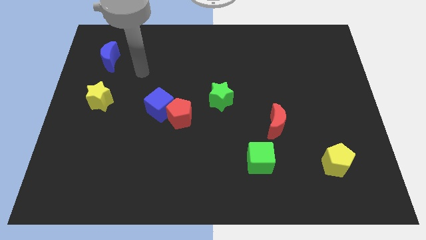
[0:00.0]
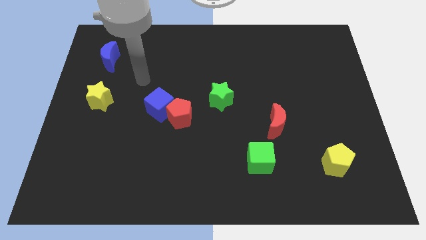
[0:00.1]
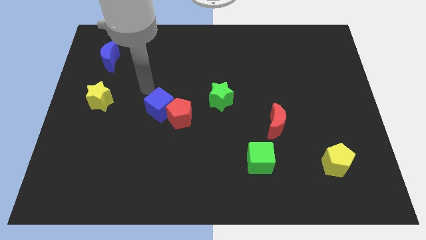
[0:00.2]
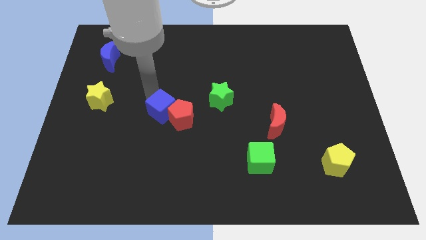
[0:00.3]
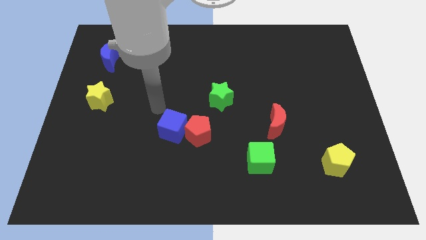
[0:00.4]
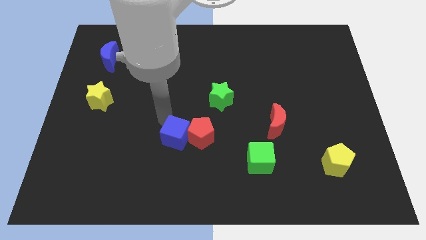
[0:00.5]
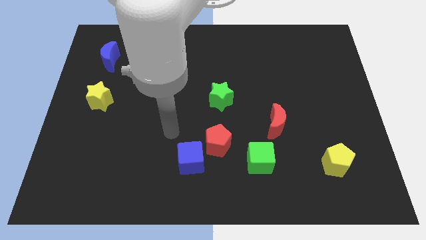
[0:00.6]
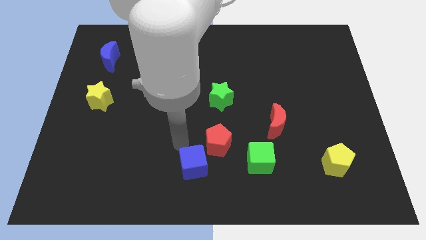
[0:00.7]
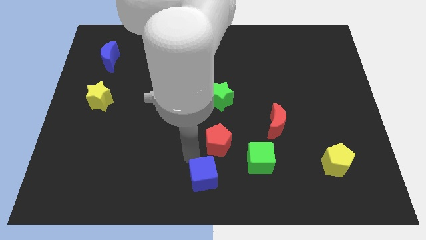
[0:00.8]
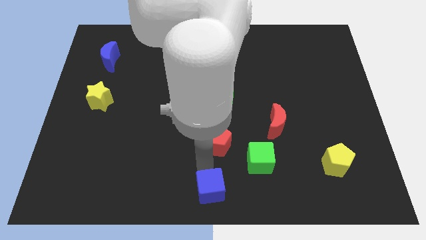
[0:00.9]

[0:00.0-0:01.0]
move the red pentagon away from the blue cube

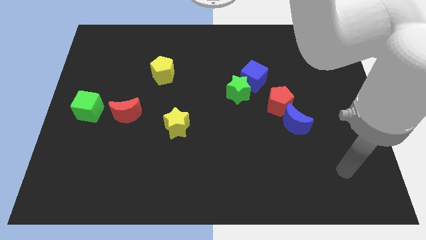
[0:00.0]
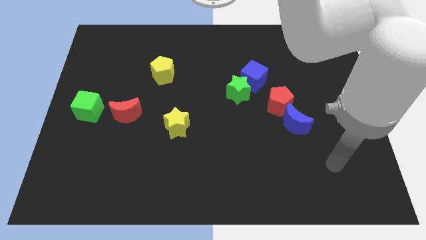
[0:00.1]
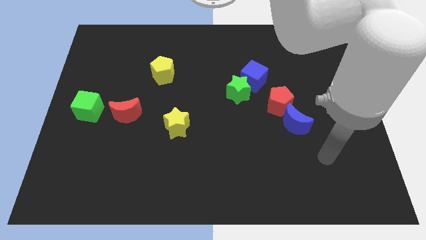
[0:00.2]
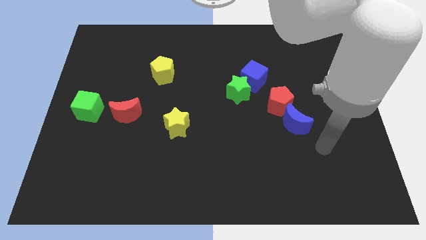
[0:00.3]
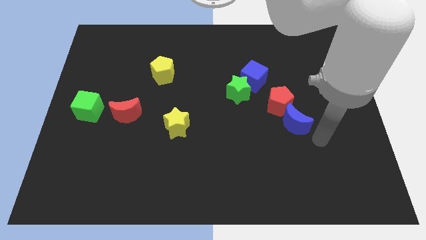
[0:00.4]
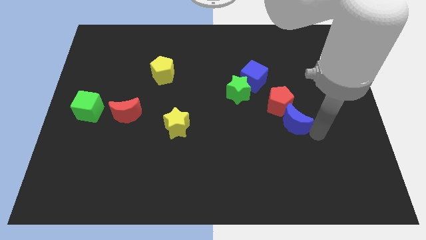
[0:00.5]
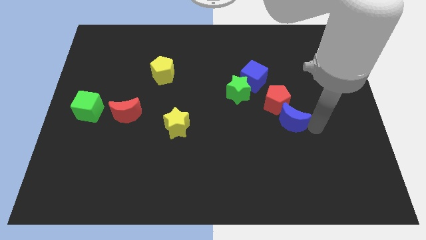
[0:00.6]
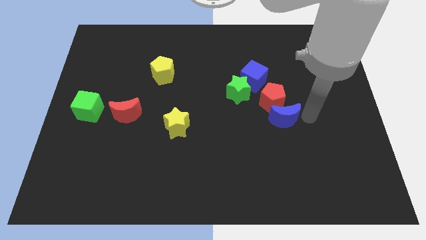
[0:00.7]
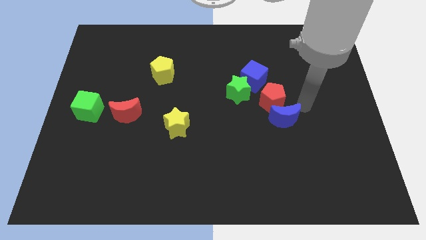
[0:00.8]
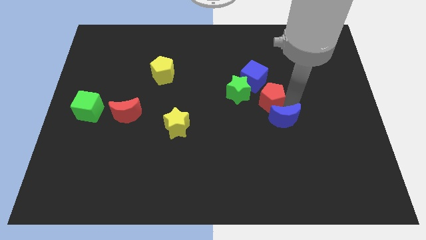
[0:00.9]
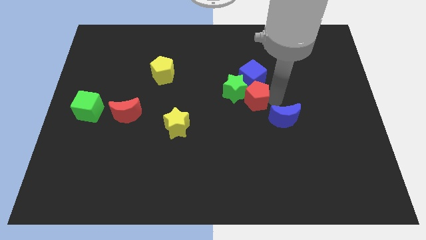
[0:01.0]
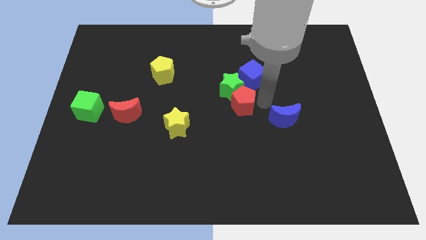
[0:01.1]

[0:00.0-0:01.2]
pull the blue moon apart from the red pentagon

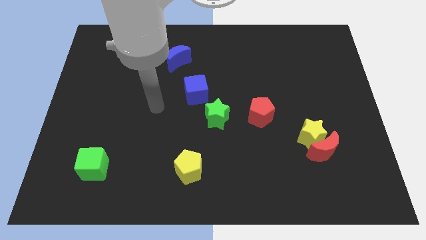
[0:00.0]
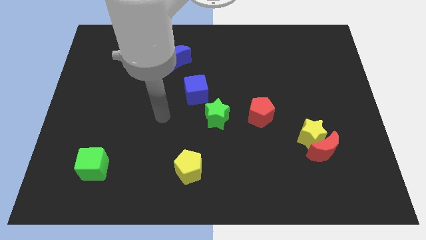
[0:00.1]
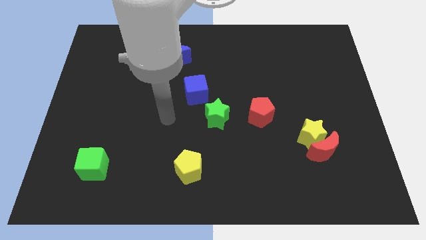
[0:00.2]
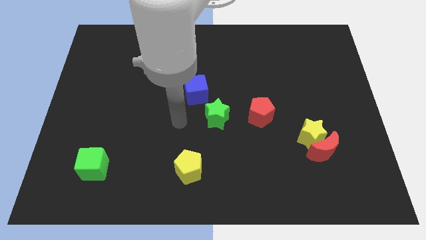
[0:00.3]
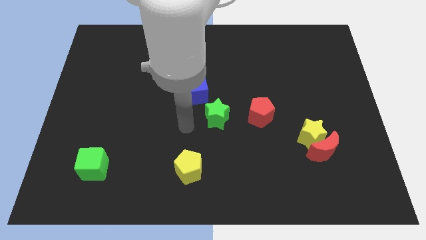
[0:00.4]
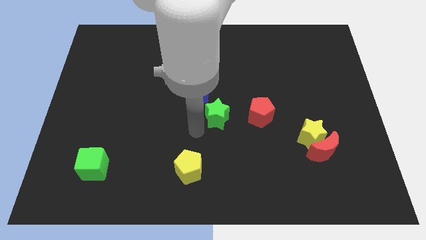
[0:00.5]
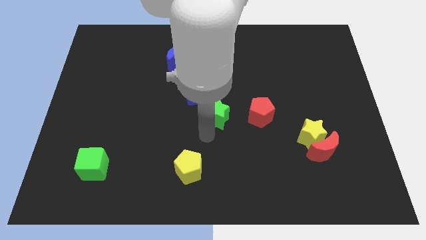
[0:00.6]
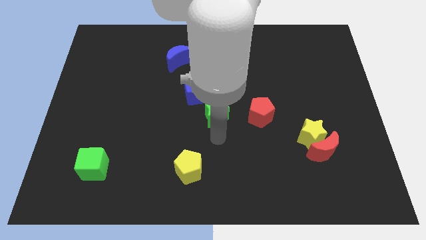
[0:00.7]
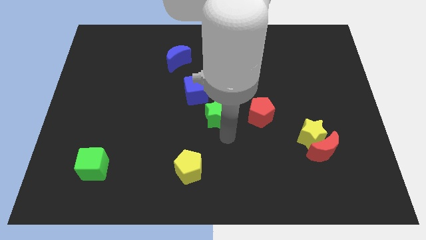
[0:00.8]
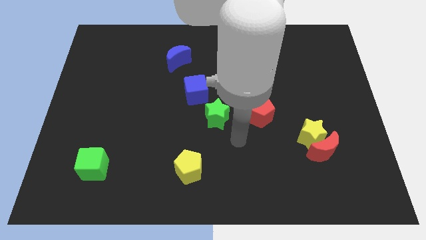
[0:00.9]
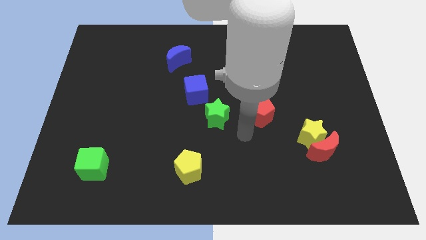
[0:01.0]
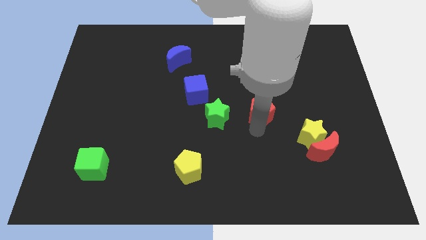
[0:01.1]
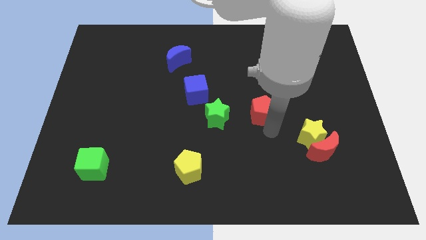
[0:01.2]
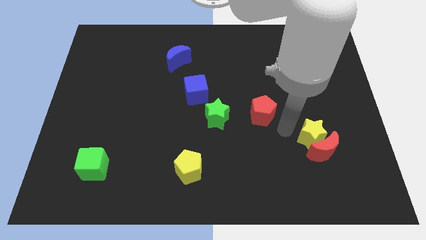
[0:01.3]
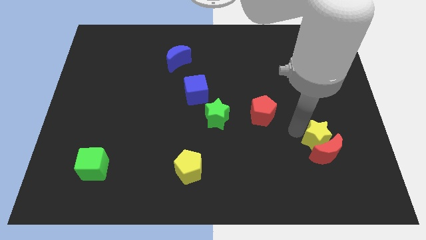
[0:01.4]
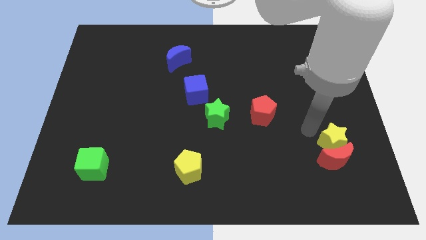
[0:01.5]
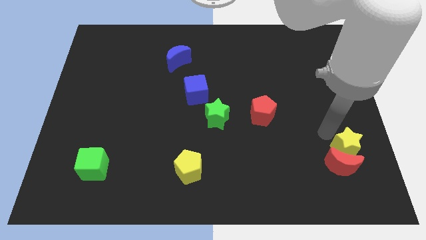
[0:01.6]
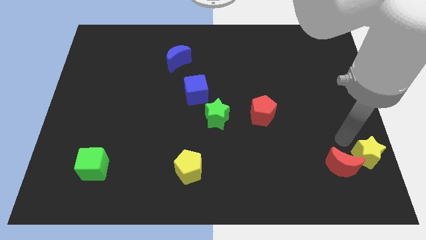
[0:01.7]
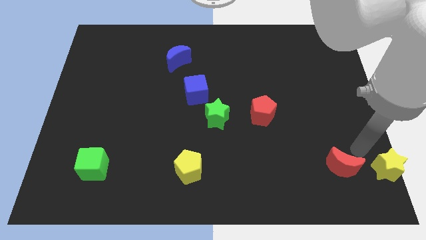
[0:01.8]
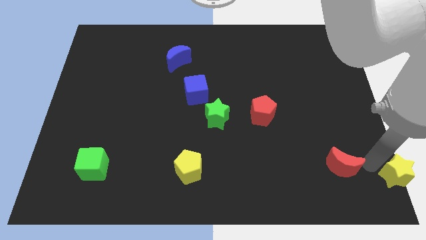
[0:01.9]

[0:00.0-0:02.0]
move the red moon away from the yellow star

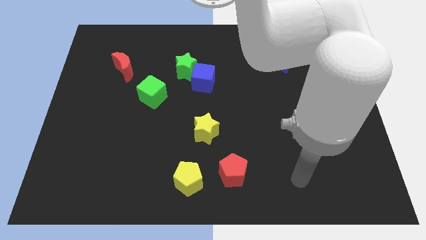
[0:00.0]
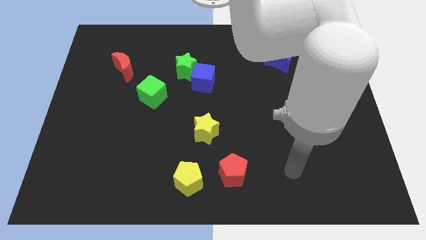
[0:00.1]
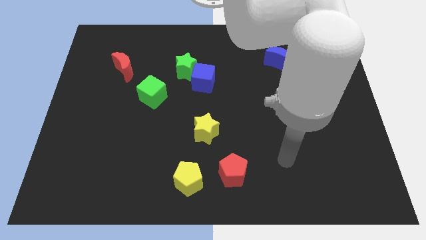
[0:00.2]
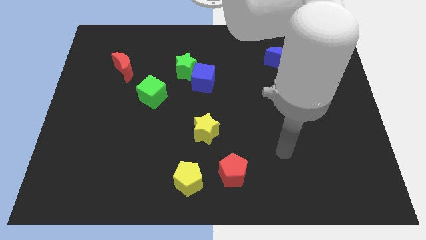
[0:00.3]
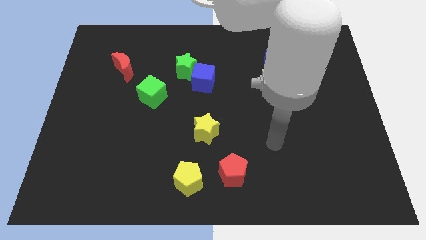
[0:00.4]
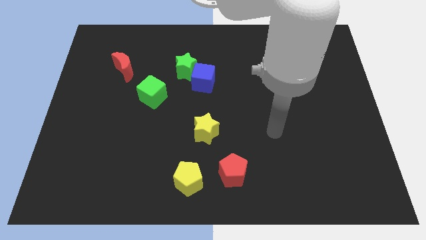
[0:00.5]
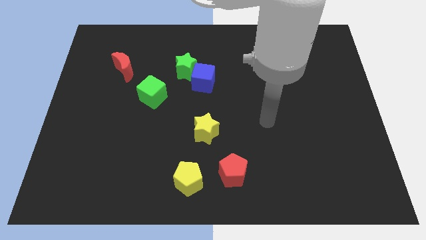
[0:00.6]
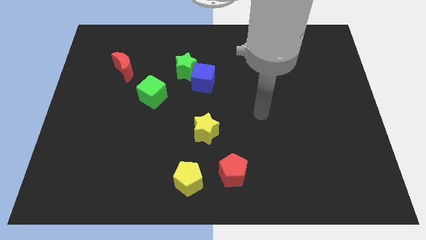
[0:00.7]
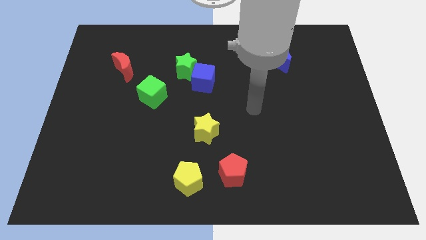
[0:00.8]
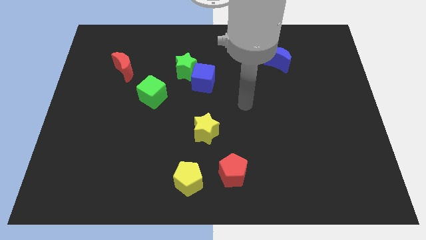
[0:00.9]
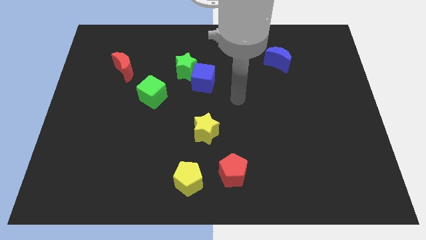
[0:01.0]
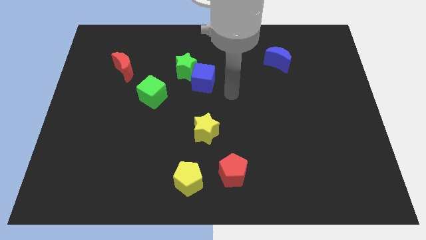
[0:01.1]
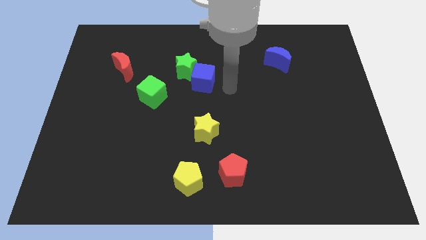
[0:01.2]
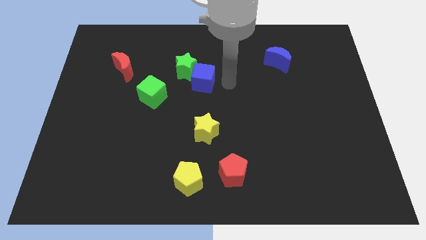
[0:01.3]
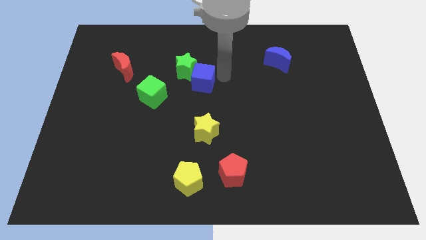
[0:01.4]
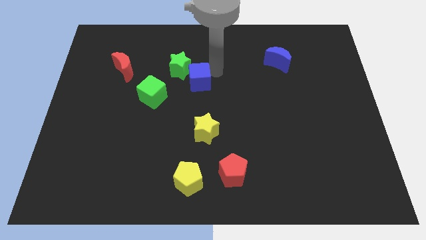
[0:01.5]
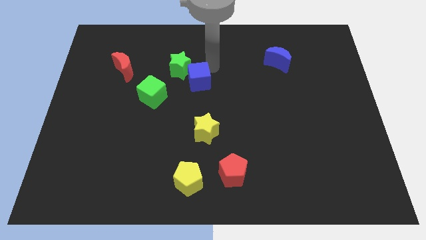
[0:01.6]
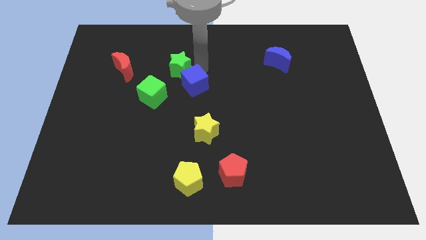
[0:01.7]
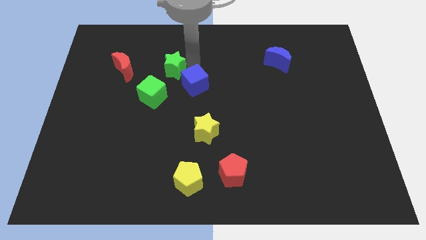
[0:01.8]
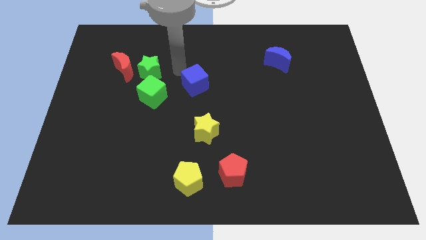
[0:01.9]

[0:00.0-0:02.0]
separate the blue cube from the green star

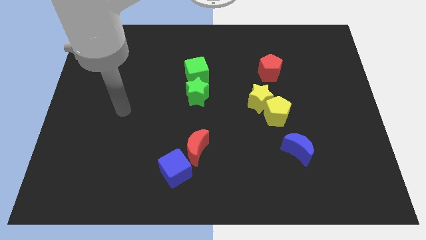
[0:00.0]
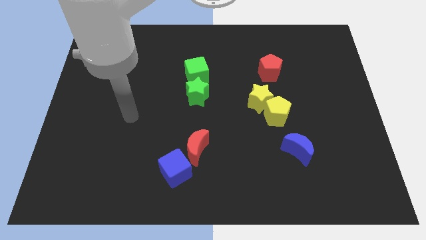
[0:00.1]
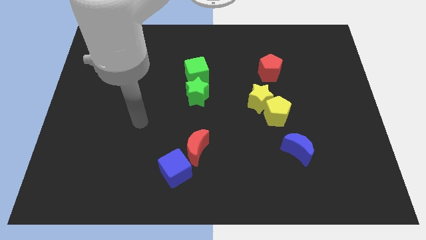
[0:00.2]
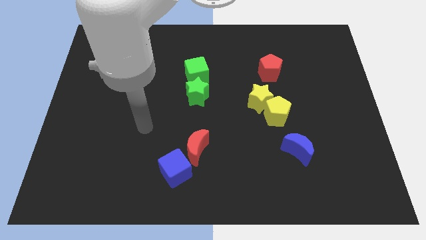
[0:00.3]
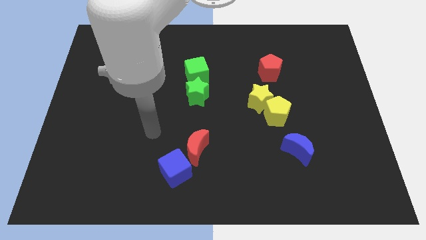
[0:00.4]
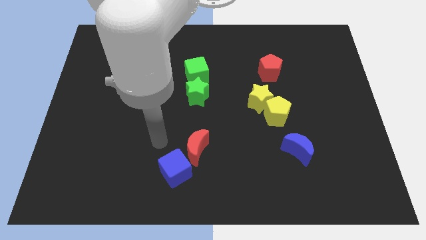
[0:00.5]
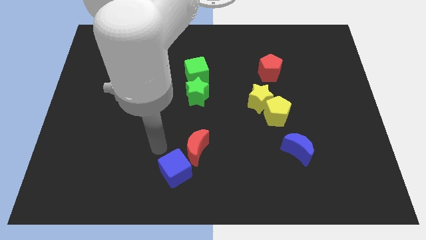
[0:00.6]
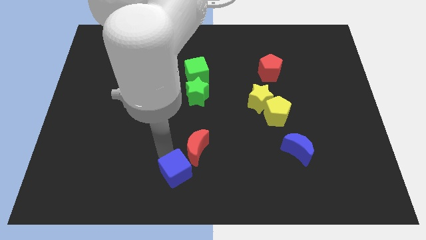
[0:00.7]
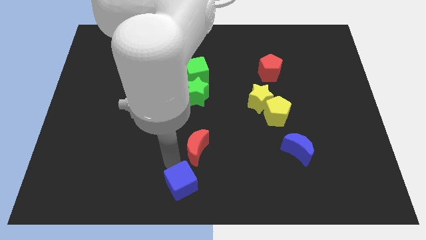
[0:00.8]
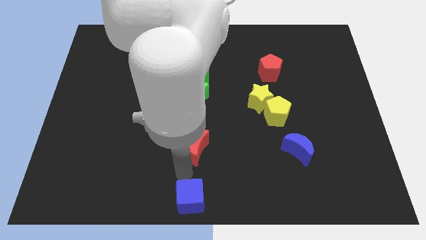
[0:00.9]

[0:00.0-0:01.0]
pull the red moon apart from the blue cube

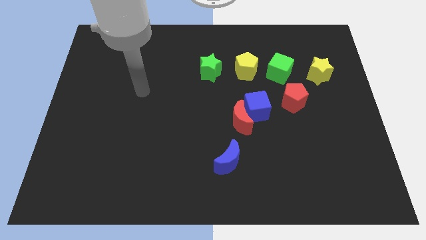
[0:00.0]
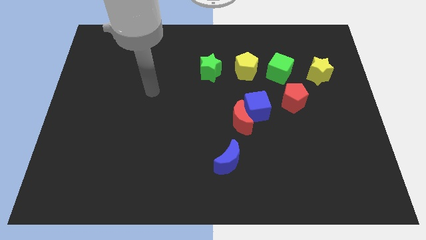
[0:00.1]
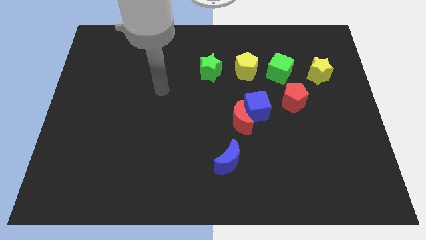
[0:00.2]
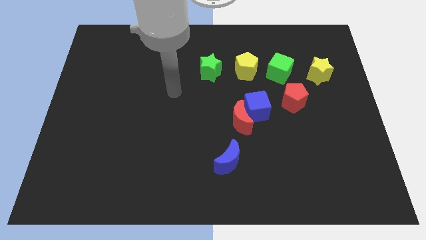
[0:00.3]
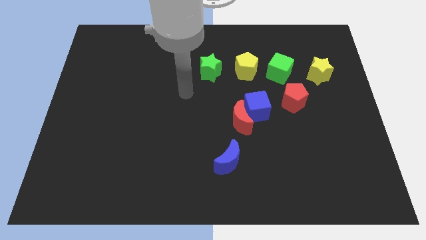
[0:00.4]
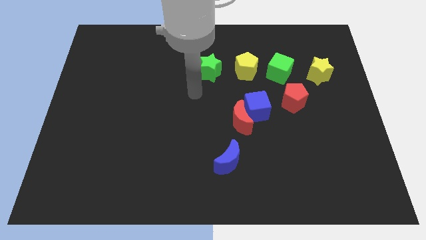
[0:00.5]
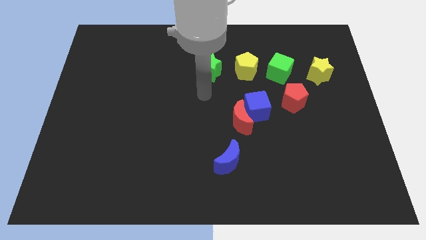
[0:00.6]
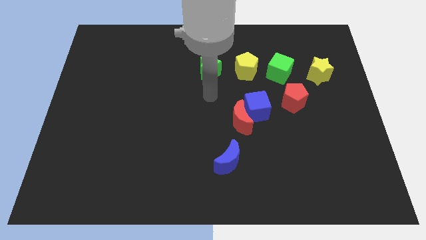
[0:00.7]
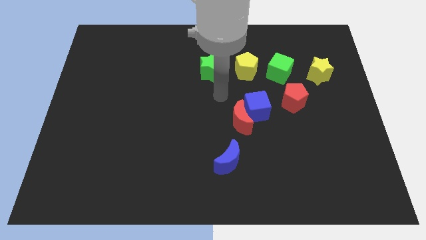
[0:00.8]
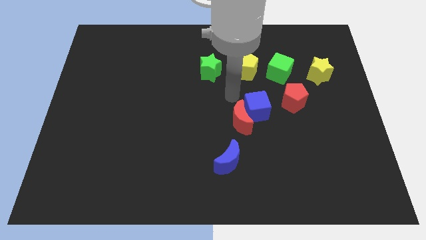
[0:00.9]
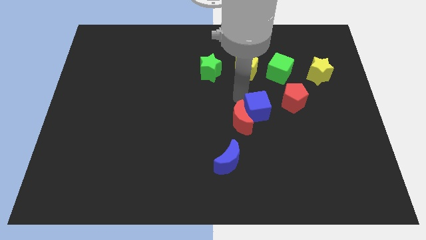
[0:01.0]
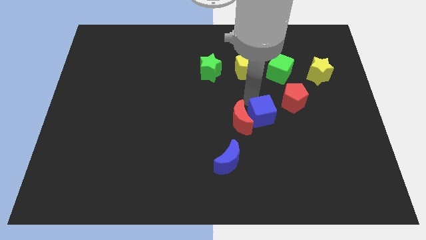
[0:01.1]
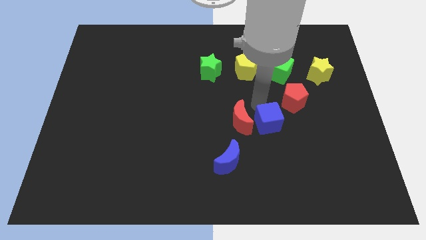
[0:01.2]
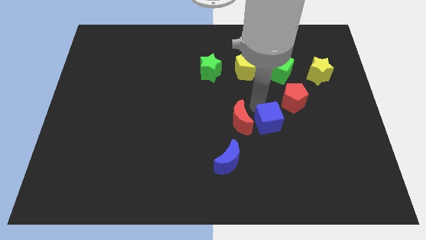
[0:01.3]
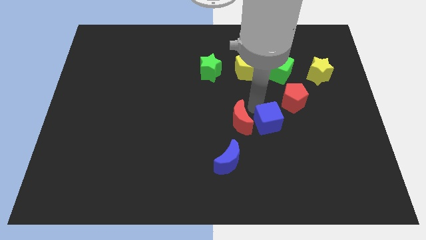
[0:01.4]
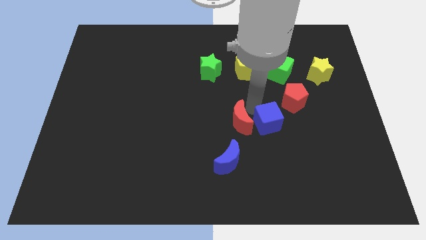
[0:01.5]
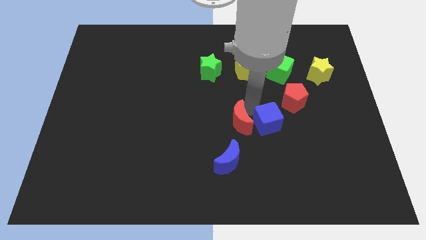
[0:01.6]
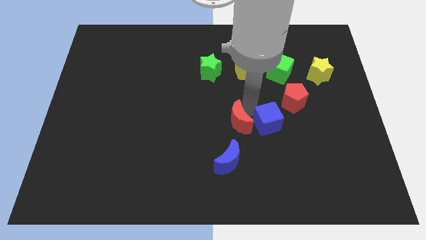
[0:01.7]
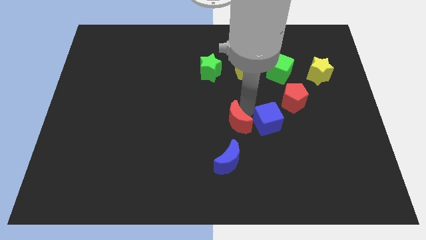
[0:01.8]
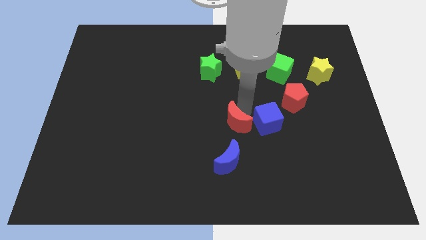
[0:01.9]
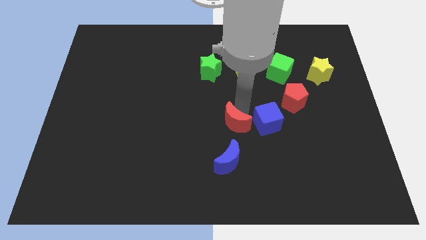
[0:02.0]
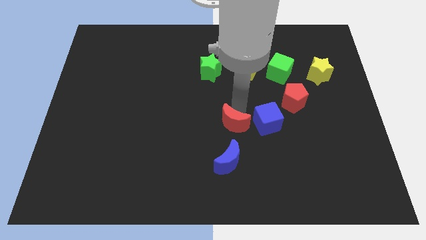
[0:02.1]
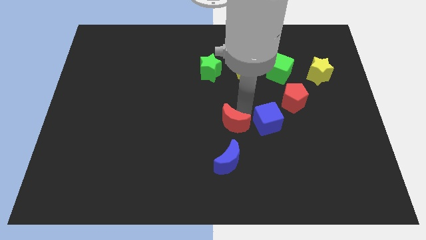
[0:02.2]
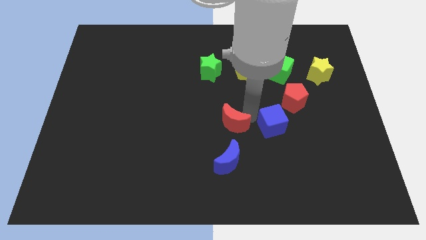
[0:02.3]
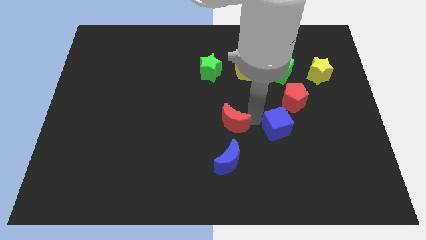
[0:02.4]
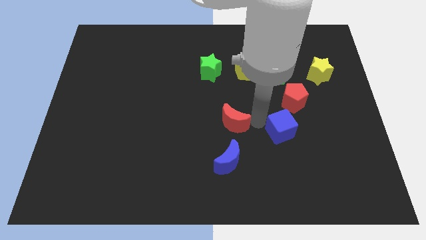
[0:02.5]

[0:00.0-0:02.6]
separate the red moon from the blue cube